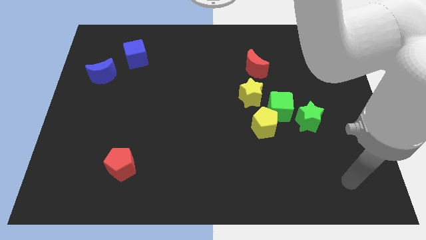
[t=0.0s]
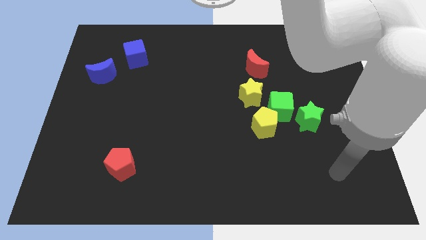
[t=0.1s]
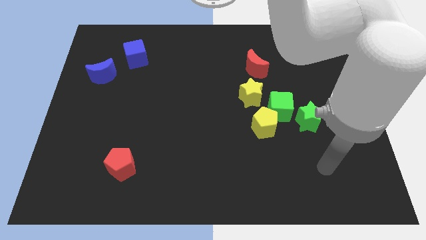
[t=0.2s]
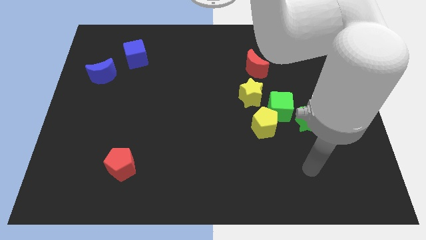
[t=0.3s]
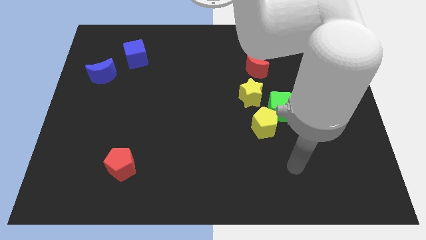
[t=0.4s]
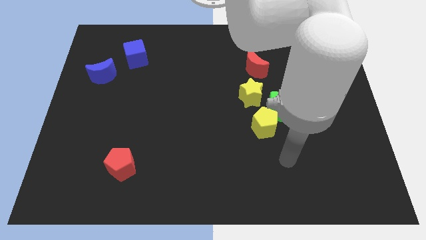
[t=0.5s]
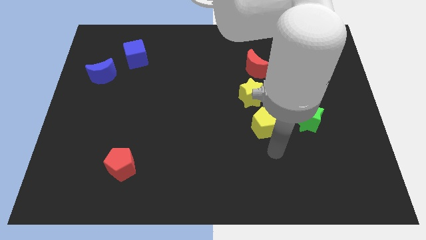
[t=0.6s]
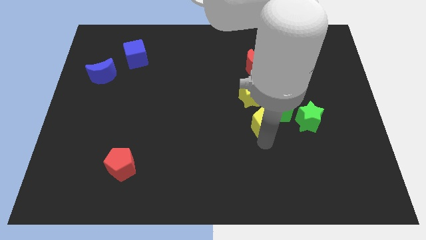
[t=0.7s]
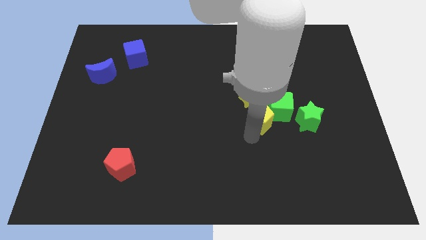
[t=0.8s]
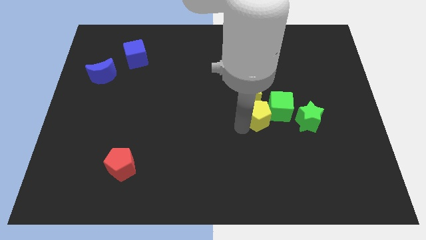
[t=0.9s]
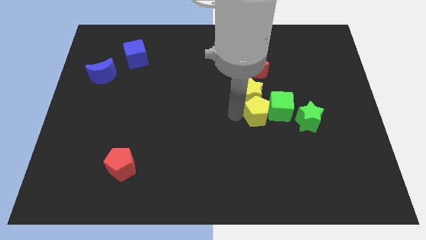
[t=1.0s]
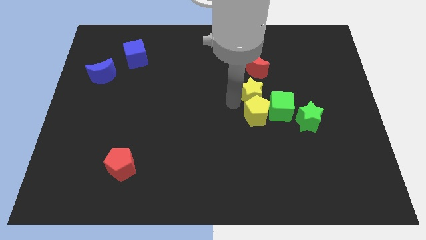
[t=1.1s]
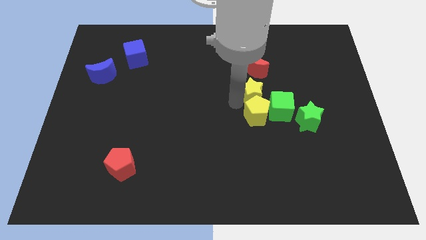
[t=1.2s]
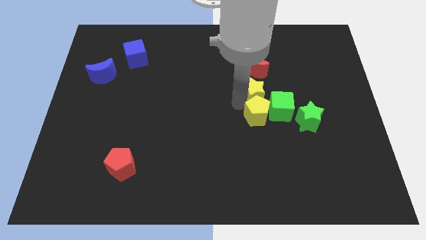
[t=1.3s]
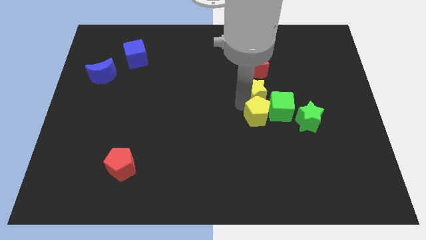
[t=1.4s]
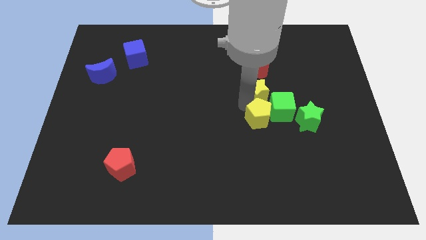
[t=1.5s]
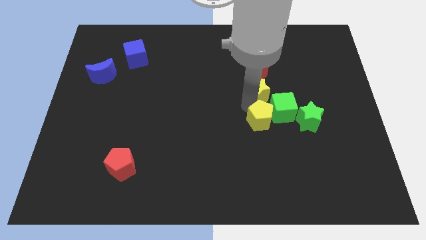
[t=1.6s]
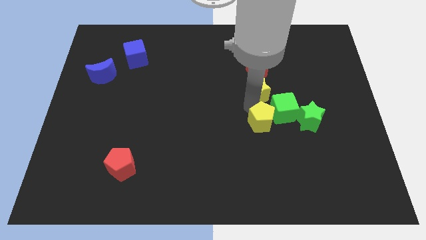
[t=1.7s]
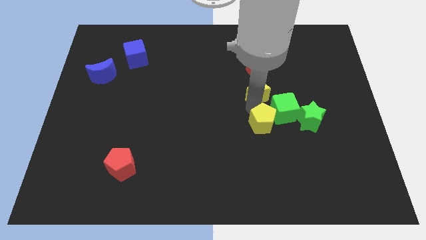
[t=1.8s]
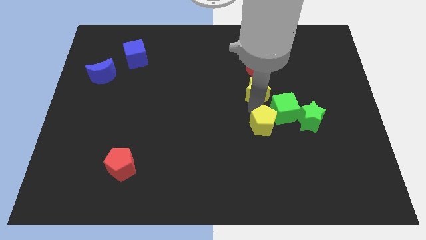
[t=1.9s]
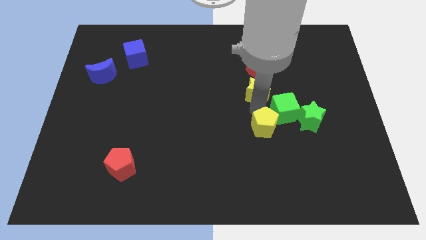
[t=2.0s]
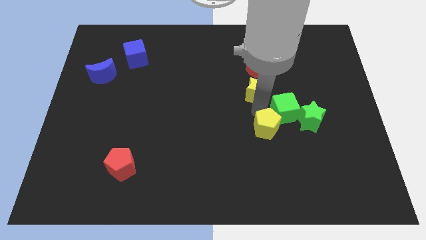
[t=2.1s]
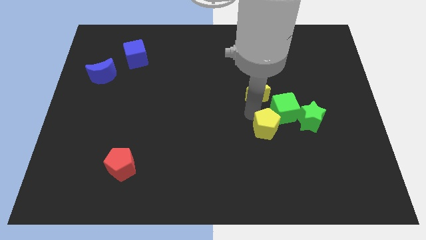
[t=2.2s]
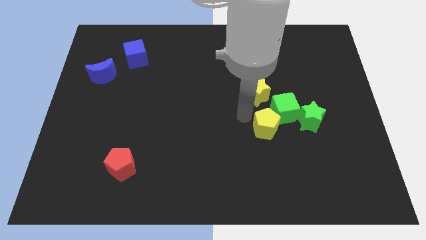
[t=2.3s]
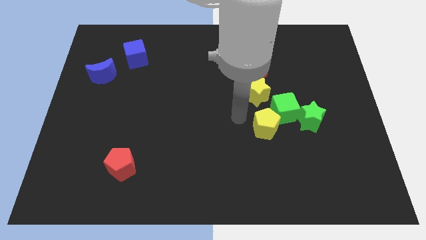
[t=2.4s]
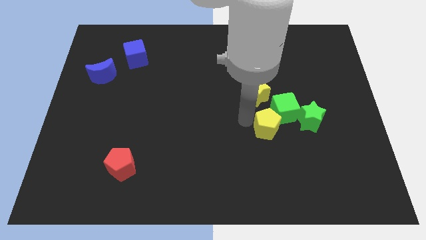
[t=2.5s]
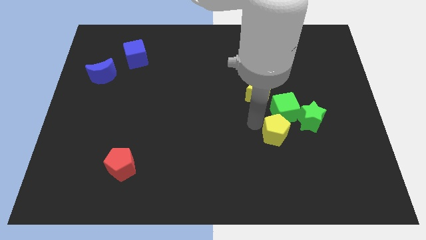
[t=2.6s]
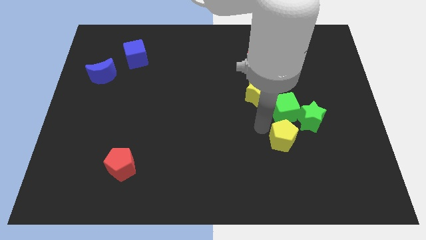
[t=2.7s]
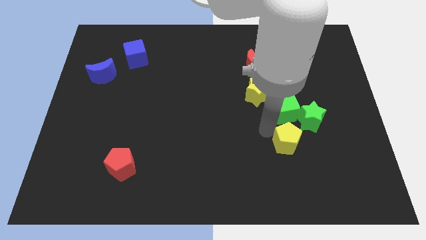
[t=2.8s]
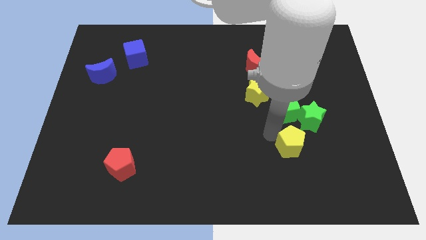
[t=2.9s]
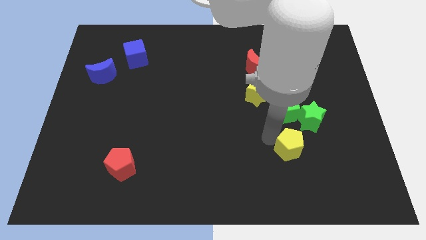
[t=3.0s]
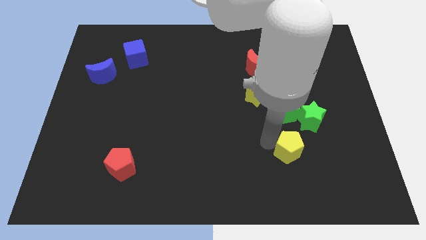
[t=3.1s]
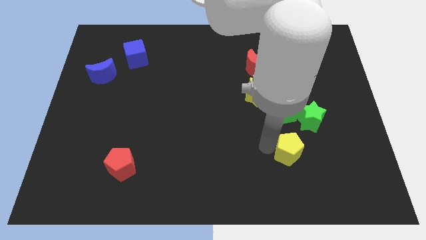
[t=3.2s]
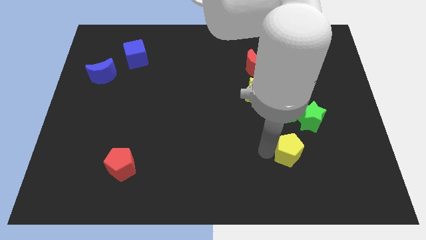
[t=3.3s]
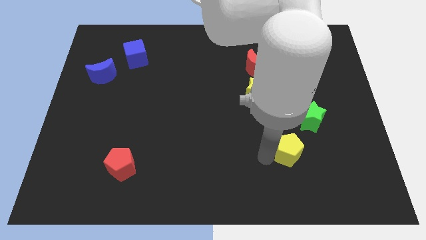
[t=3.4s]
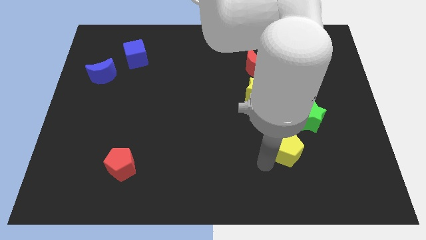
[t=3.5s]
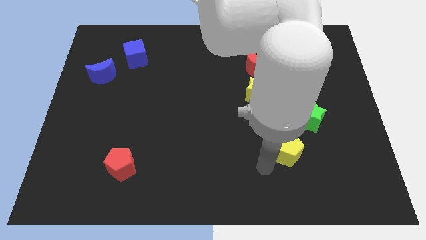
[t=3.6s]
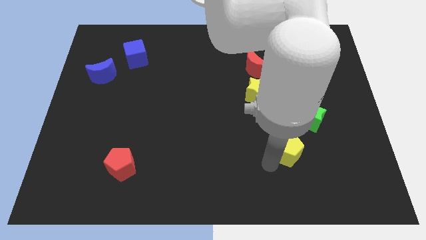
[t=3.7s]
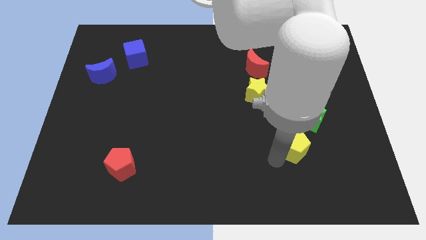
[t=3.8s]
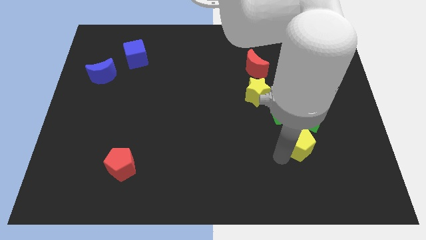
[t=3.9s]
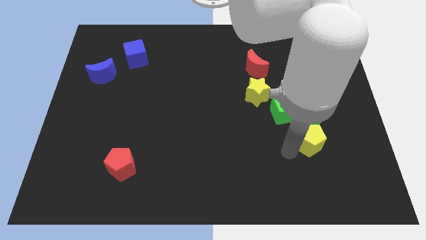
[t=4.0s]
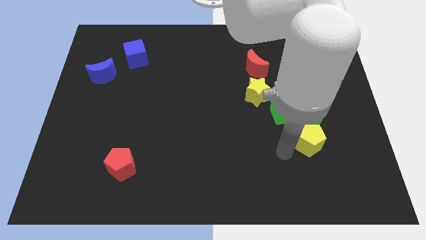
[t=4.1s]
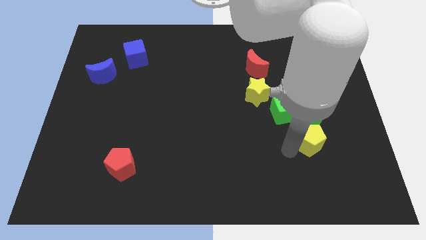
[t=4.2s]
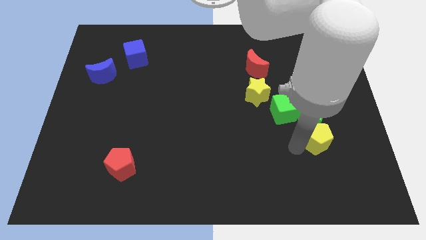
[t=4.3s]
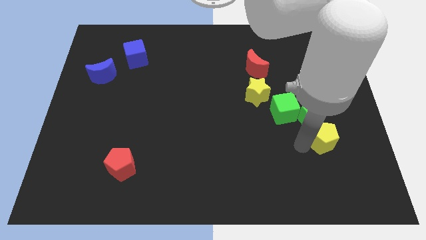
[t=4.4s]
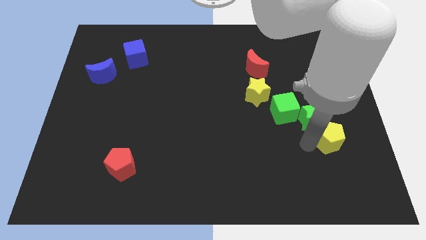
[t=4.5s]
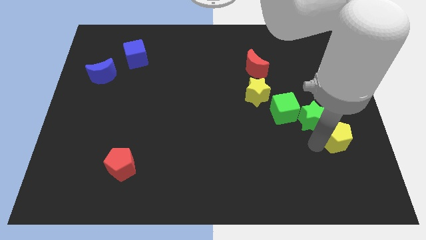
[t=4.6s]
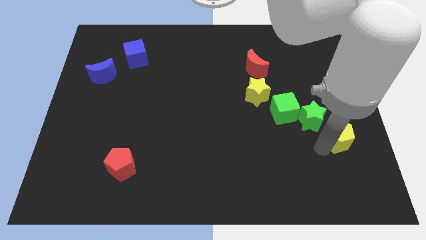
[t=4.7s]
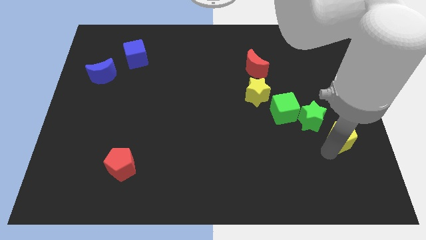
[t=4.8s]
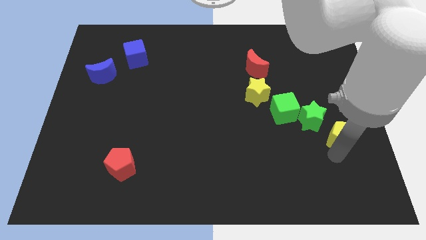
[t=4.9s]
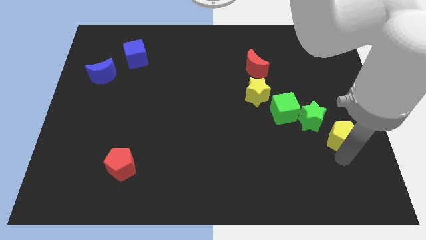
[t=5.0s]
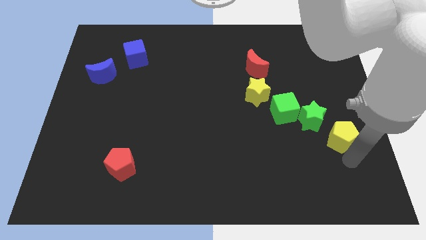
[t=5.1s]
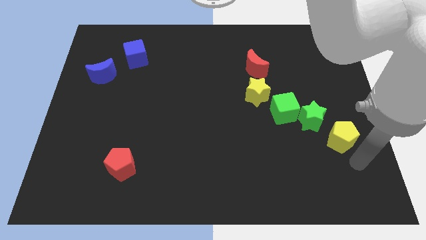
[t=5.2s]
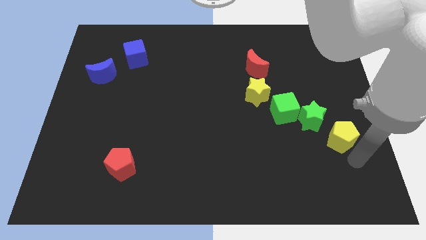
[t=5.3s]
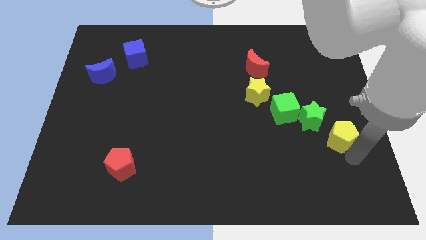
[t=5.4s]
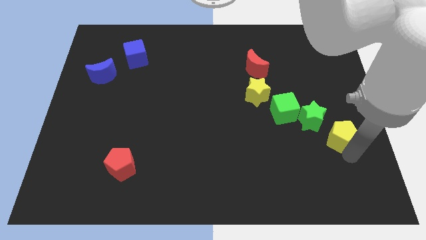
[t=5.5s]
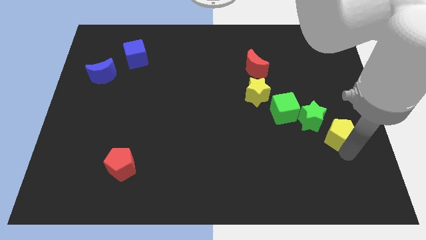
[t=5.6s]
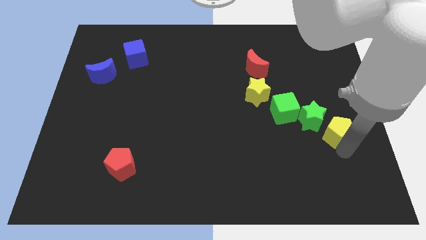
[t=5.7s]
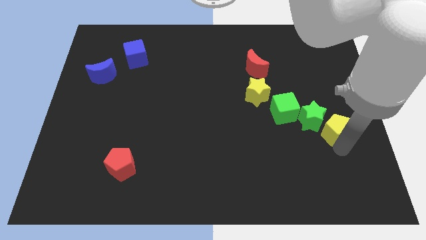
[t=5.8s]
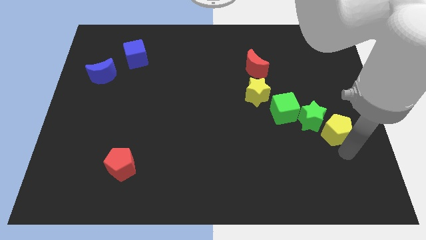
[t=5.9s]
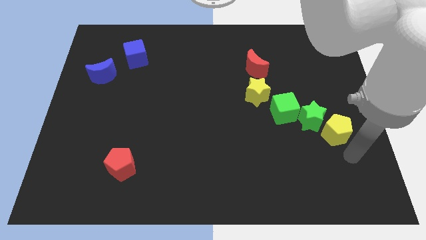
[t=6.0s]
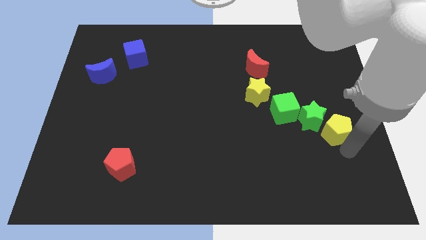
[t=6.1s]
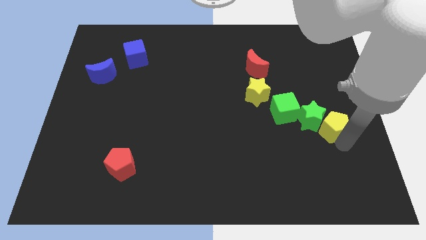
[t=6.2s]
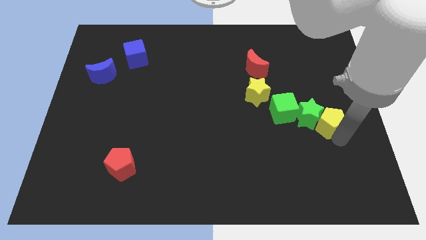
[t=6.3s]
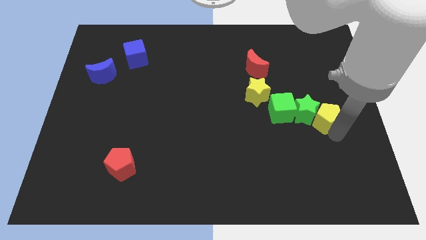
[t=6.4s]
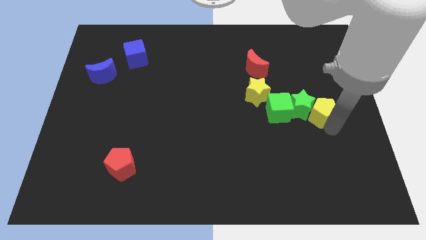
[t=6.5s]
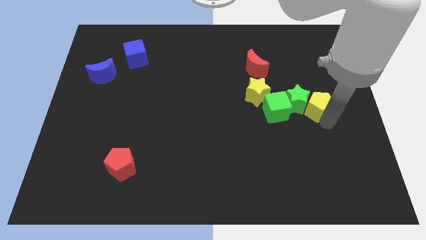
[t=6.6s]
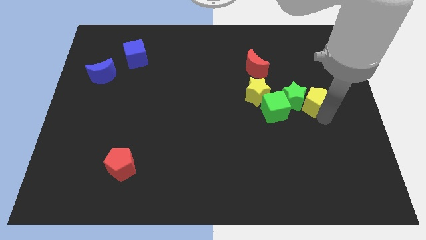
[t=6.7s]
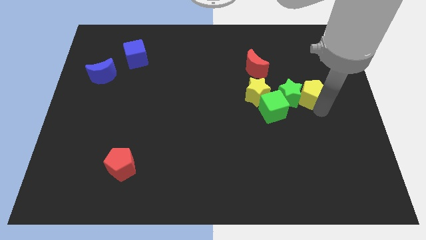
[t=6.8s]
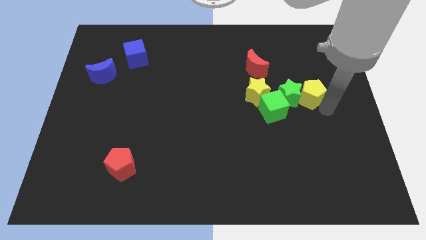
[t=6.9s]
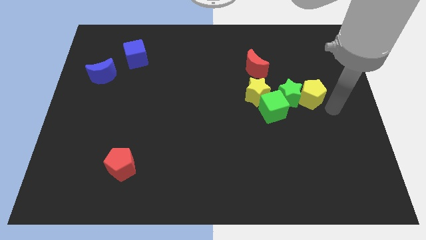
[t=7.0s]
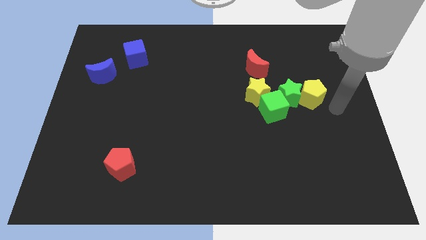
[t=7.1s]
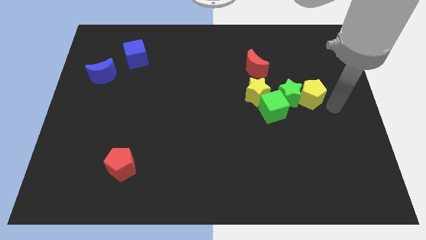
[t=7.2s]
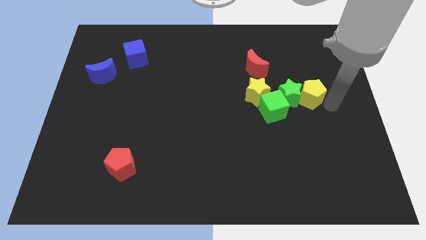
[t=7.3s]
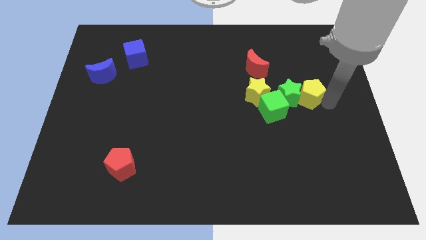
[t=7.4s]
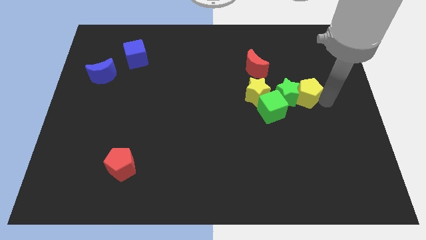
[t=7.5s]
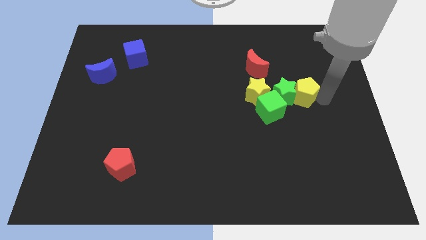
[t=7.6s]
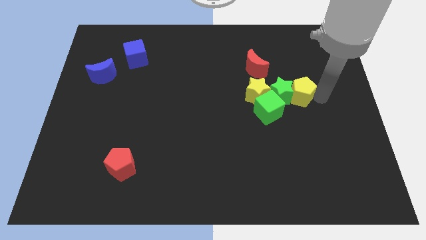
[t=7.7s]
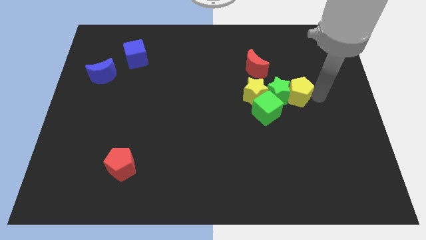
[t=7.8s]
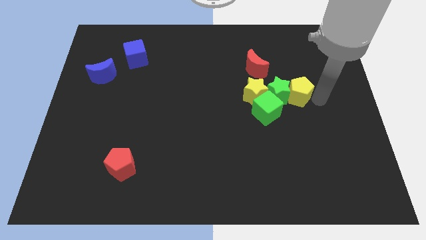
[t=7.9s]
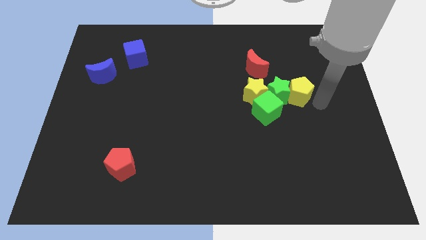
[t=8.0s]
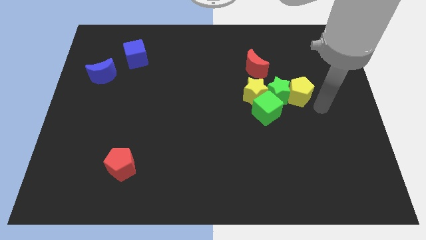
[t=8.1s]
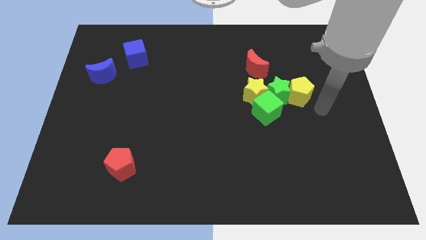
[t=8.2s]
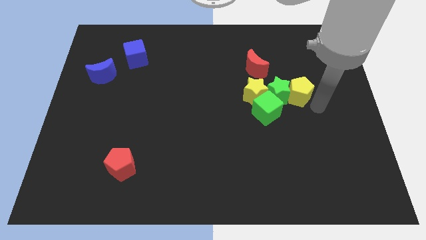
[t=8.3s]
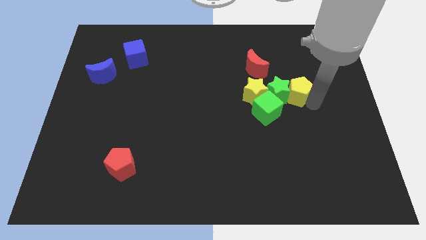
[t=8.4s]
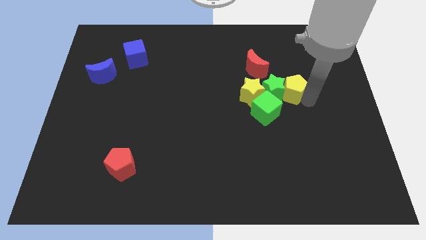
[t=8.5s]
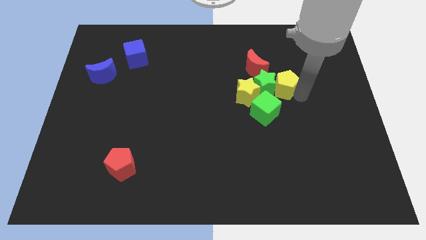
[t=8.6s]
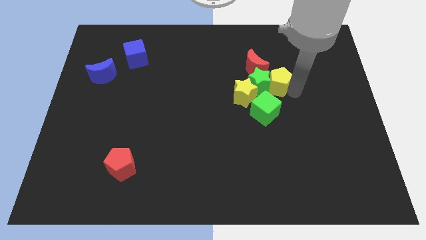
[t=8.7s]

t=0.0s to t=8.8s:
slide the yellow pentagon to the top of the green cube
